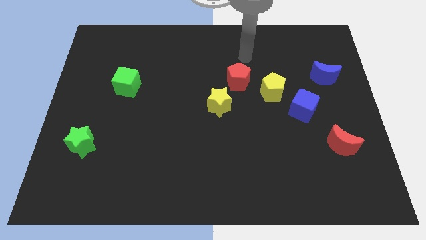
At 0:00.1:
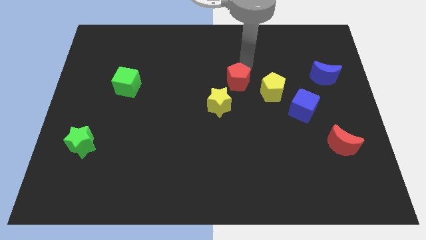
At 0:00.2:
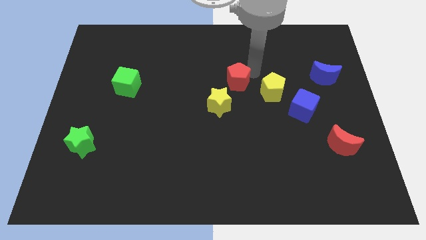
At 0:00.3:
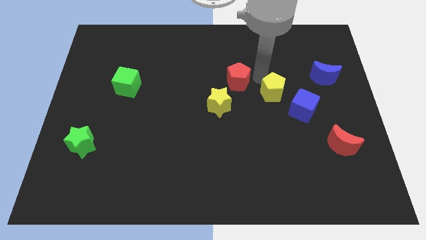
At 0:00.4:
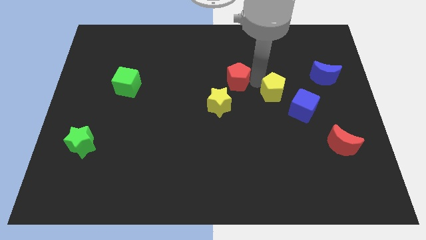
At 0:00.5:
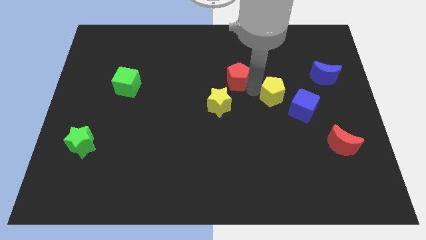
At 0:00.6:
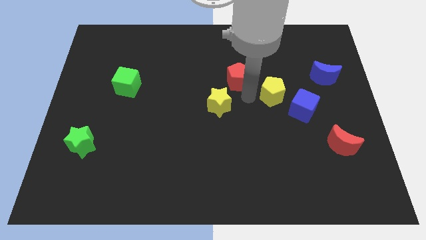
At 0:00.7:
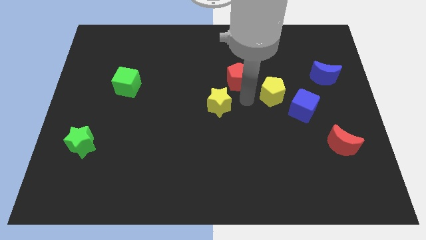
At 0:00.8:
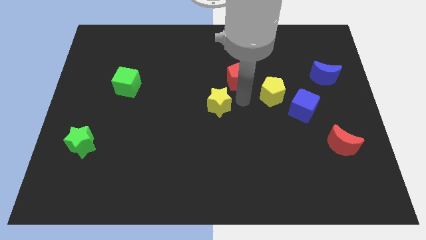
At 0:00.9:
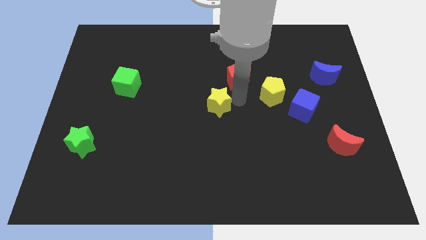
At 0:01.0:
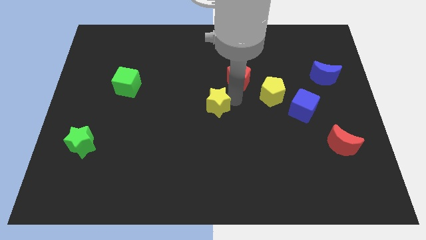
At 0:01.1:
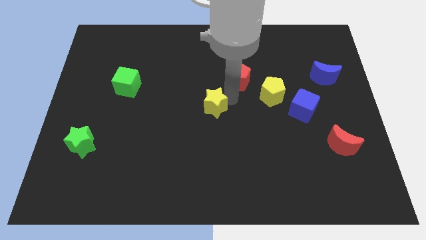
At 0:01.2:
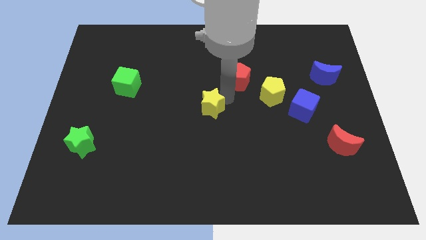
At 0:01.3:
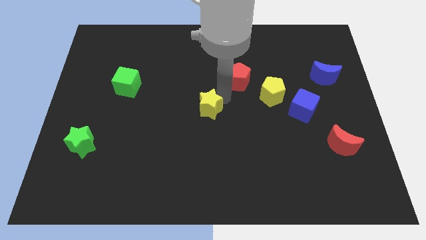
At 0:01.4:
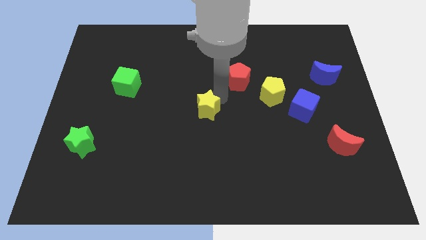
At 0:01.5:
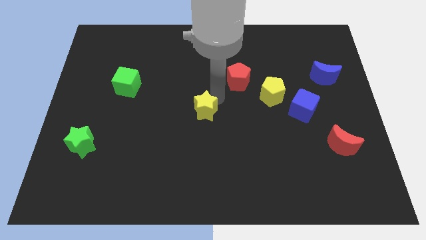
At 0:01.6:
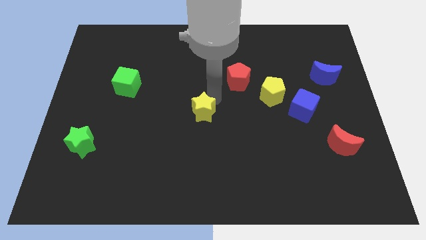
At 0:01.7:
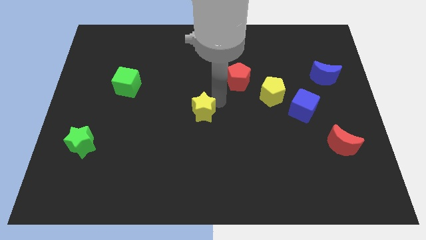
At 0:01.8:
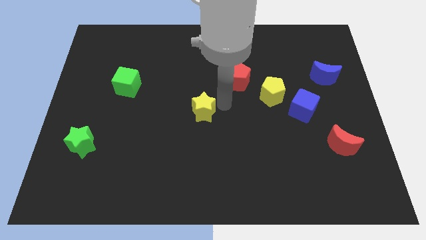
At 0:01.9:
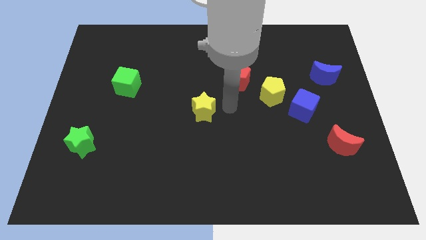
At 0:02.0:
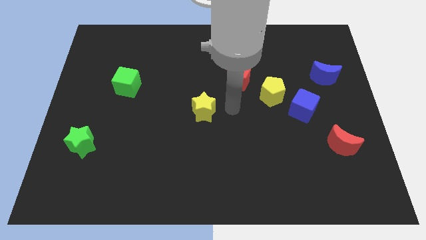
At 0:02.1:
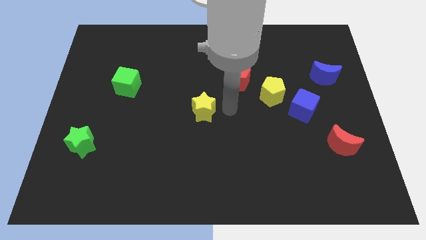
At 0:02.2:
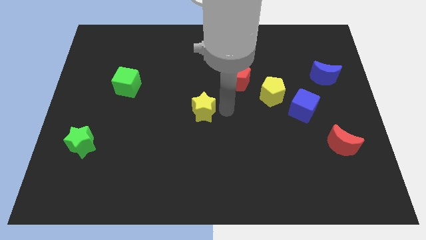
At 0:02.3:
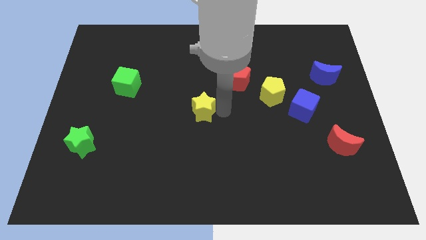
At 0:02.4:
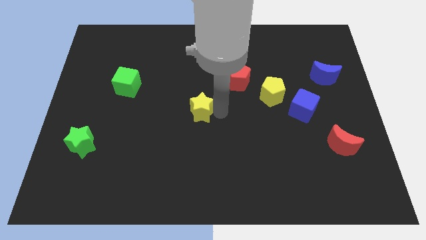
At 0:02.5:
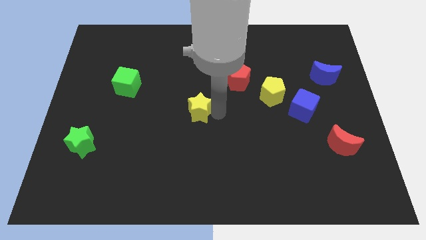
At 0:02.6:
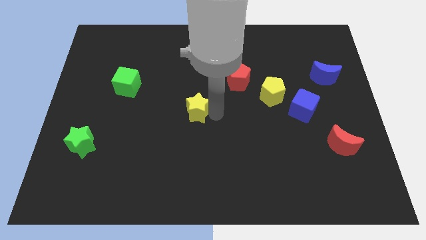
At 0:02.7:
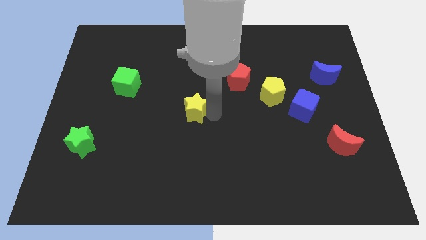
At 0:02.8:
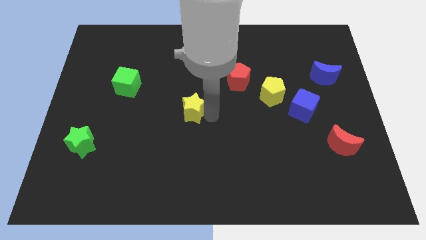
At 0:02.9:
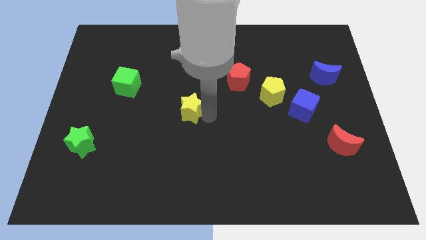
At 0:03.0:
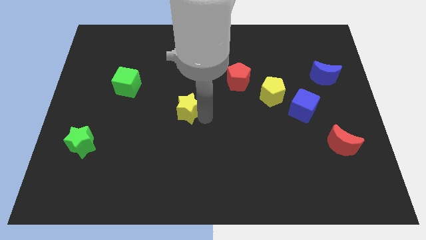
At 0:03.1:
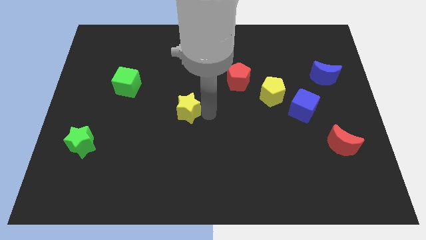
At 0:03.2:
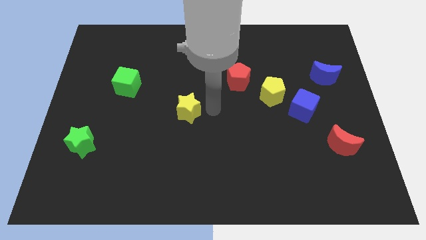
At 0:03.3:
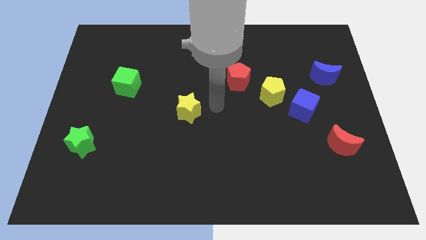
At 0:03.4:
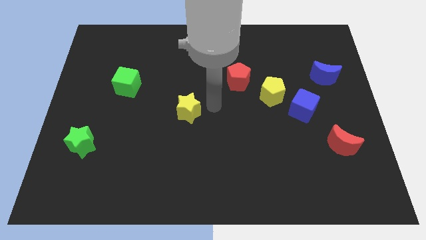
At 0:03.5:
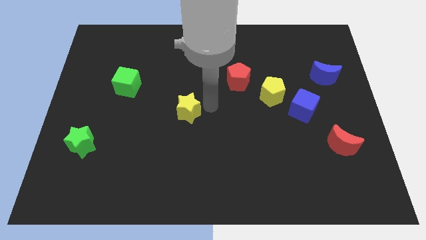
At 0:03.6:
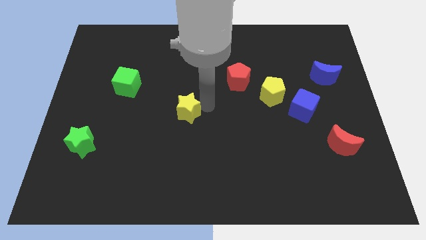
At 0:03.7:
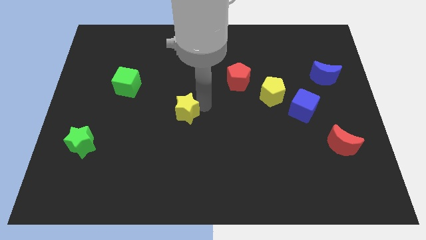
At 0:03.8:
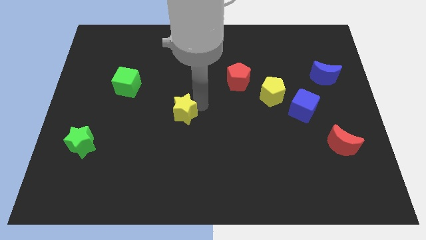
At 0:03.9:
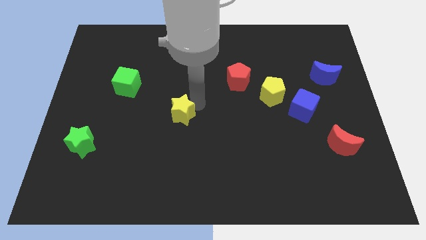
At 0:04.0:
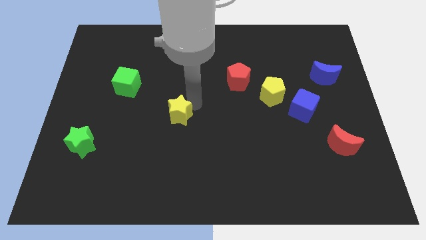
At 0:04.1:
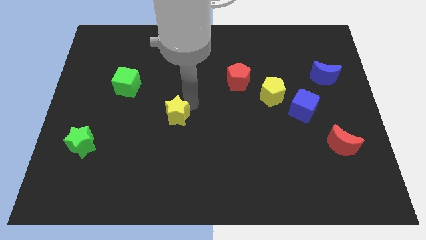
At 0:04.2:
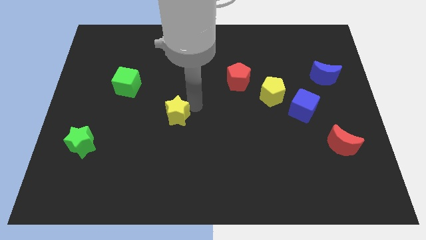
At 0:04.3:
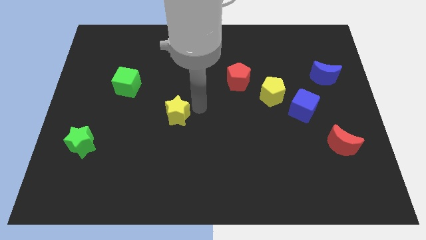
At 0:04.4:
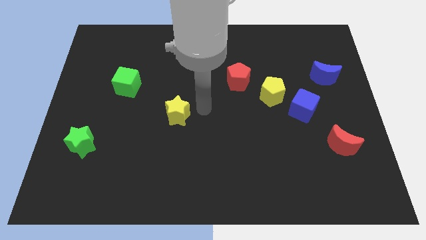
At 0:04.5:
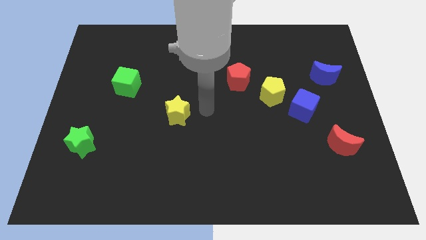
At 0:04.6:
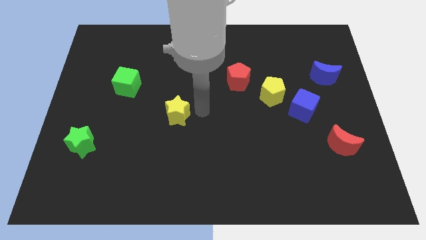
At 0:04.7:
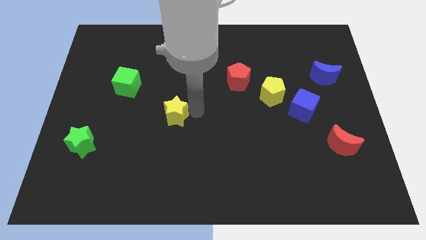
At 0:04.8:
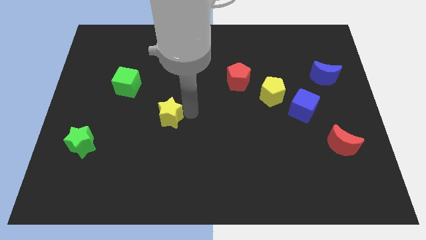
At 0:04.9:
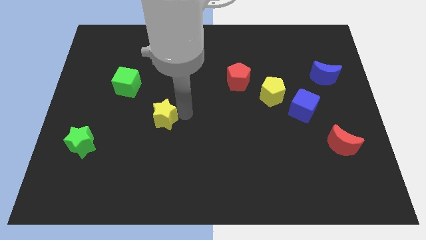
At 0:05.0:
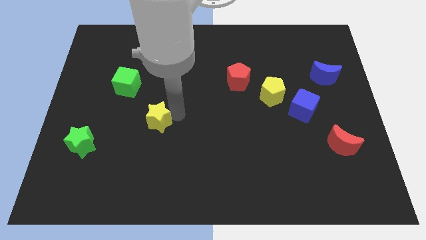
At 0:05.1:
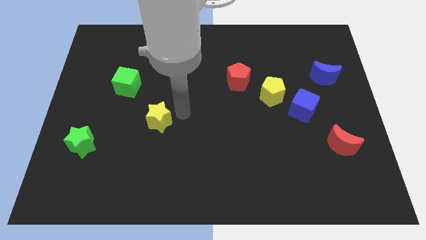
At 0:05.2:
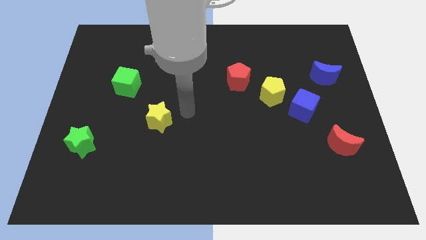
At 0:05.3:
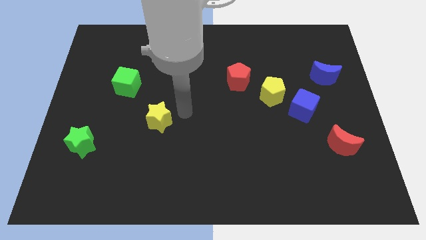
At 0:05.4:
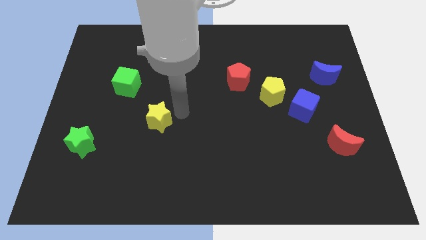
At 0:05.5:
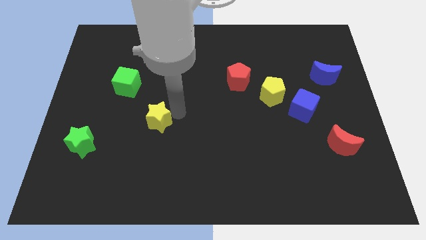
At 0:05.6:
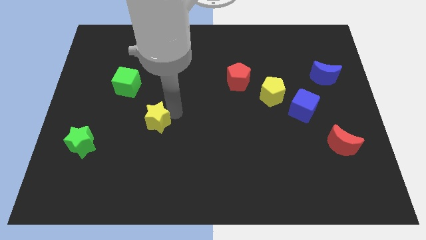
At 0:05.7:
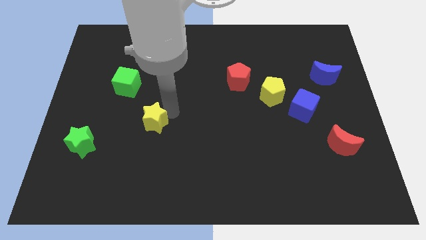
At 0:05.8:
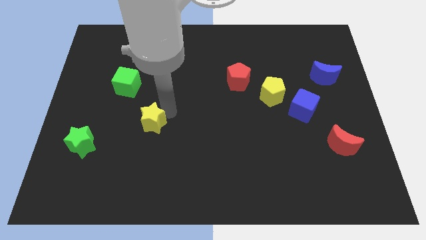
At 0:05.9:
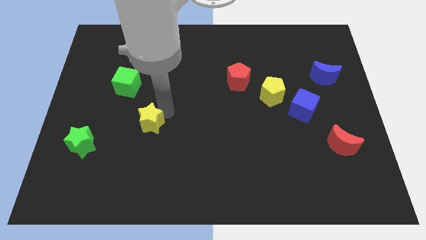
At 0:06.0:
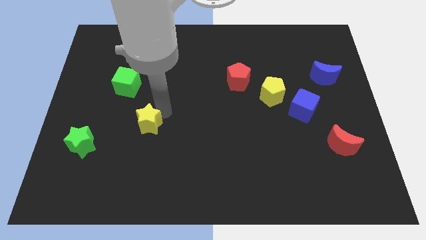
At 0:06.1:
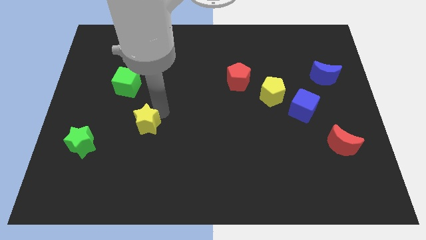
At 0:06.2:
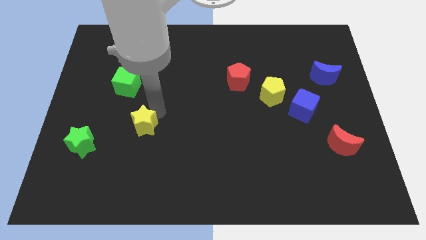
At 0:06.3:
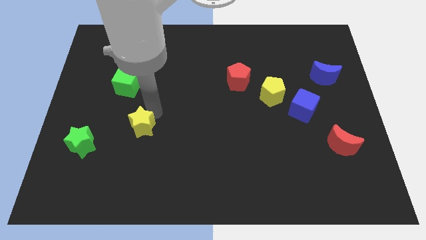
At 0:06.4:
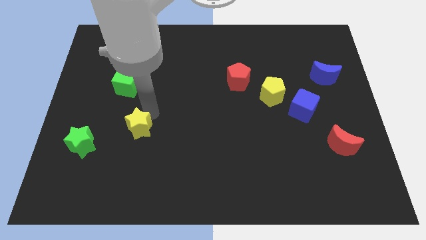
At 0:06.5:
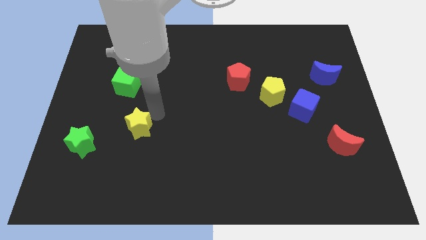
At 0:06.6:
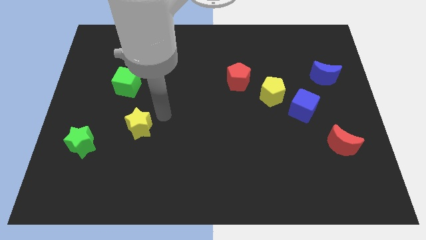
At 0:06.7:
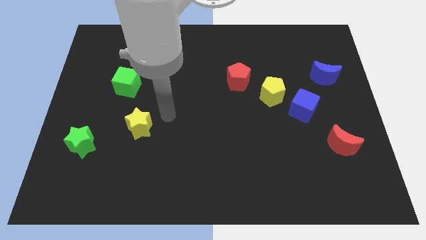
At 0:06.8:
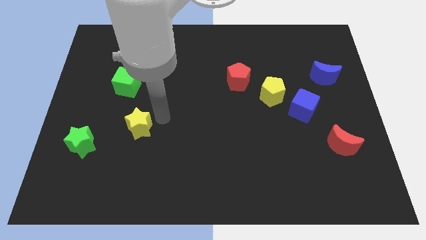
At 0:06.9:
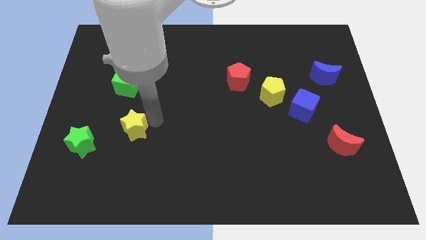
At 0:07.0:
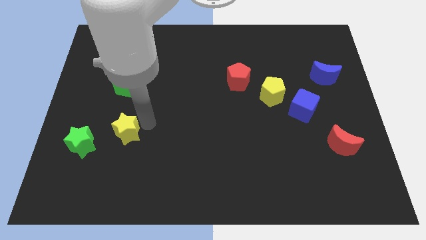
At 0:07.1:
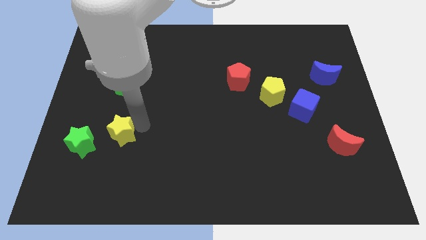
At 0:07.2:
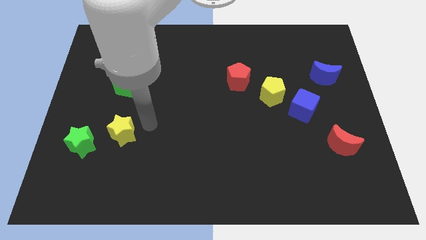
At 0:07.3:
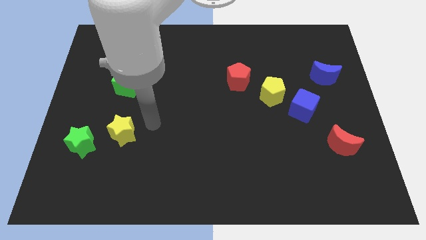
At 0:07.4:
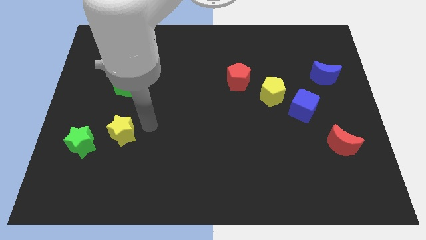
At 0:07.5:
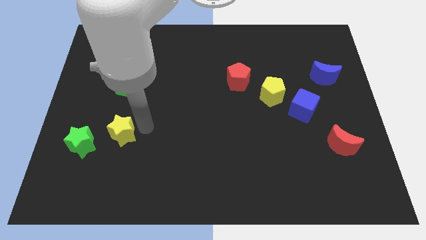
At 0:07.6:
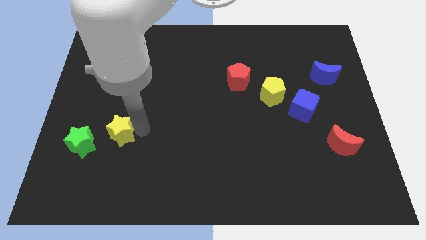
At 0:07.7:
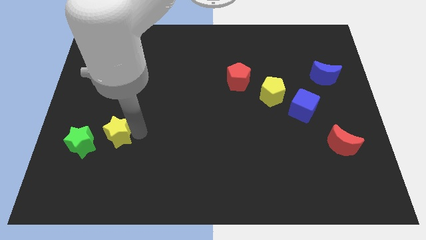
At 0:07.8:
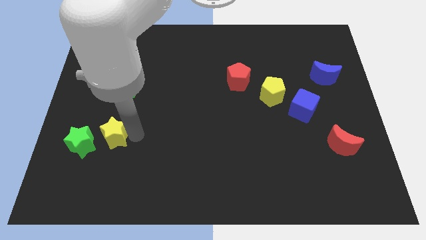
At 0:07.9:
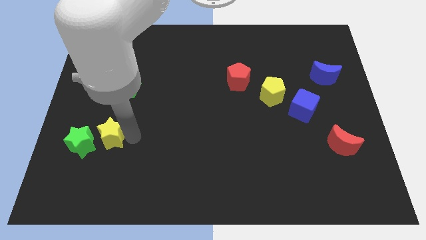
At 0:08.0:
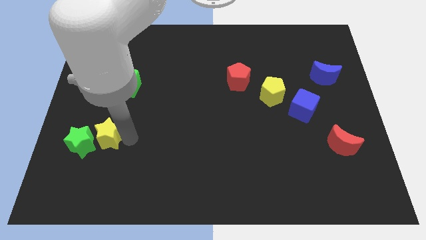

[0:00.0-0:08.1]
put the yellow star next to the green star
